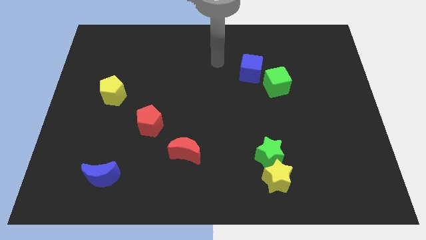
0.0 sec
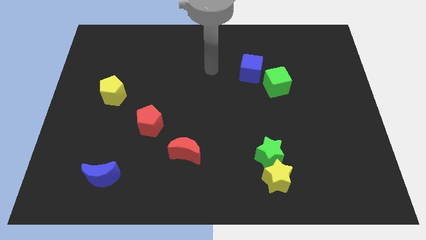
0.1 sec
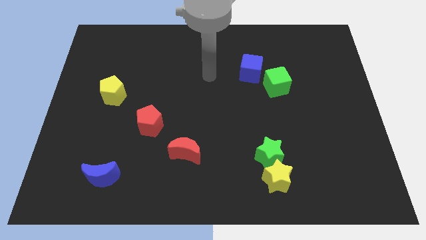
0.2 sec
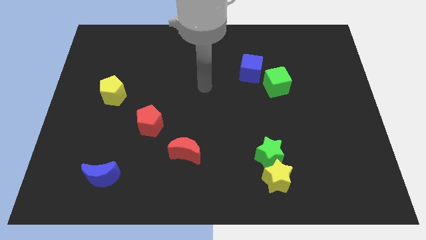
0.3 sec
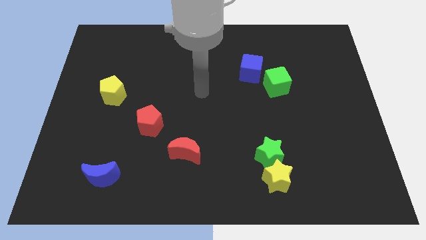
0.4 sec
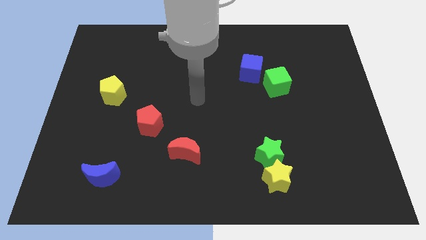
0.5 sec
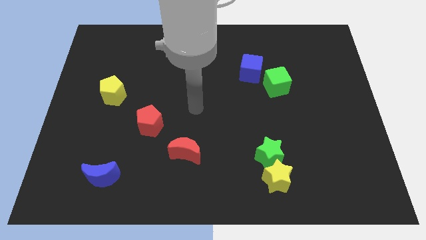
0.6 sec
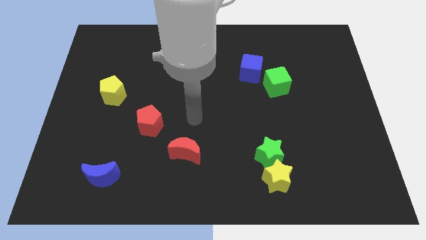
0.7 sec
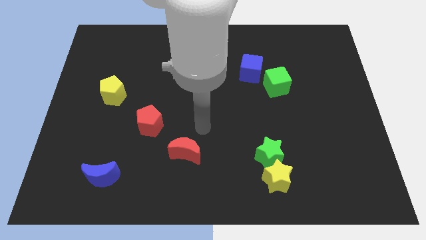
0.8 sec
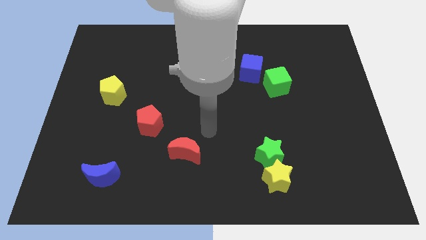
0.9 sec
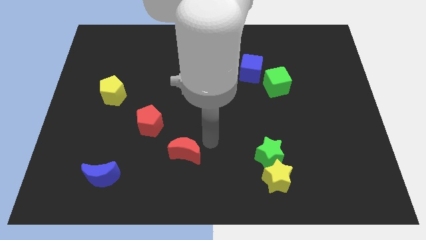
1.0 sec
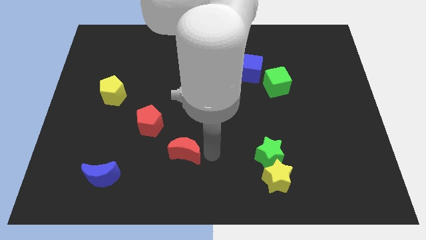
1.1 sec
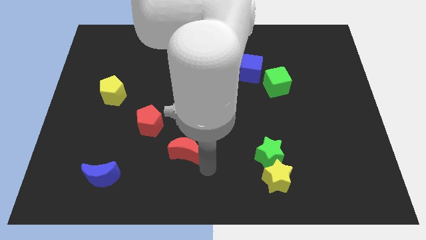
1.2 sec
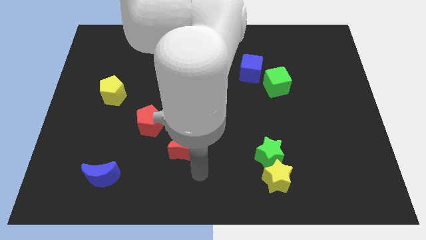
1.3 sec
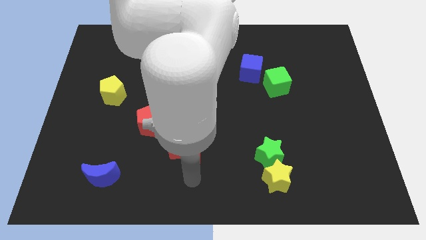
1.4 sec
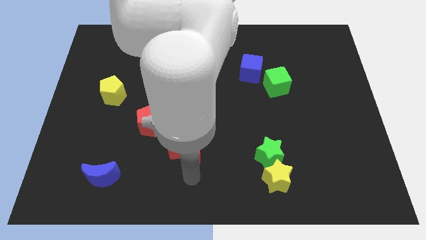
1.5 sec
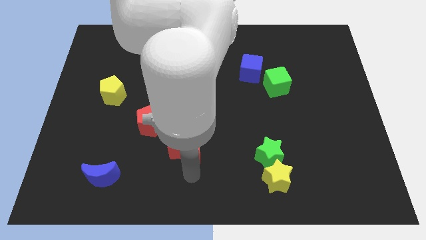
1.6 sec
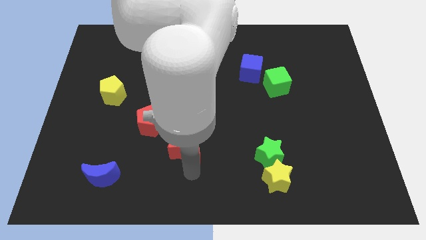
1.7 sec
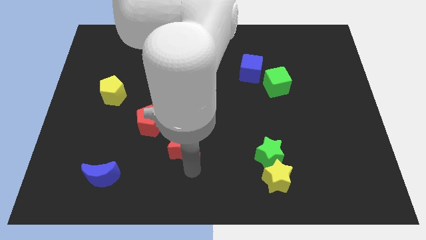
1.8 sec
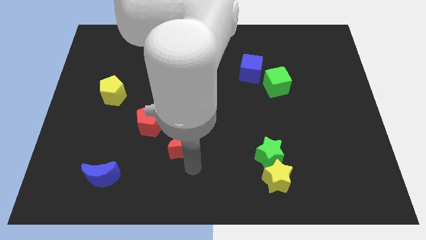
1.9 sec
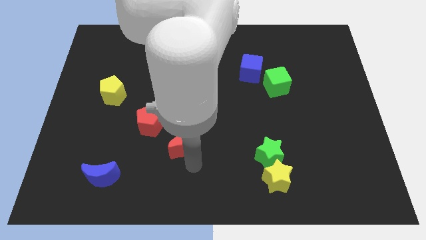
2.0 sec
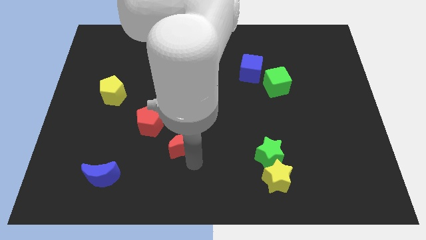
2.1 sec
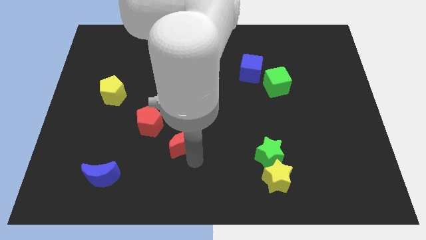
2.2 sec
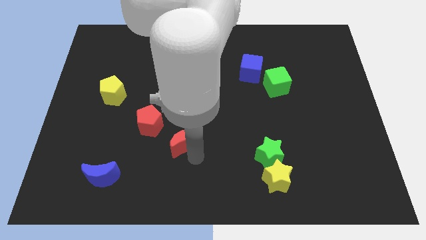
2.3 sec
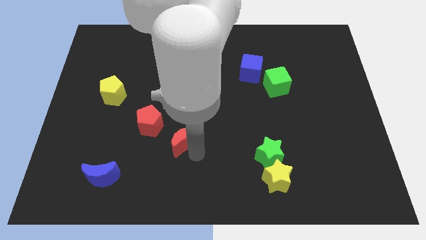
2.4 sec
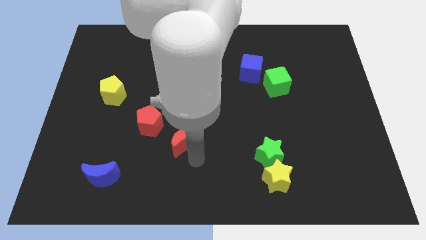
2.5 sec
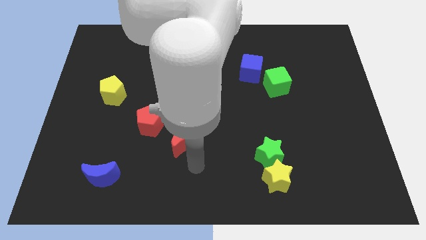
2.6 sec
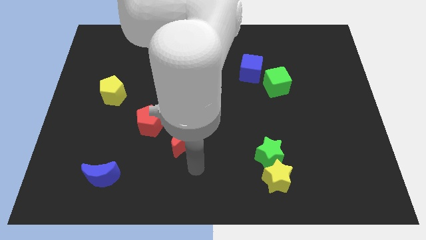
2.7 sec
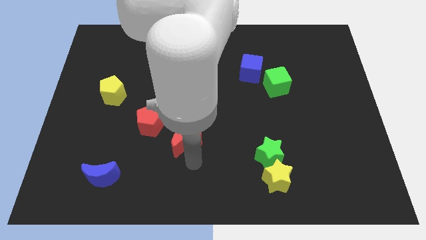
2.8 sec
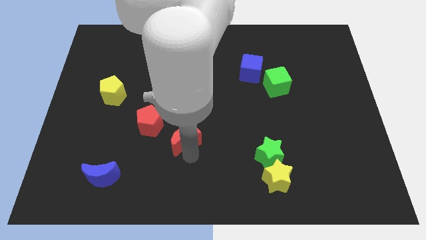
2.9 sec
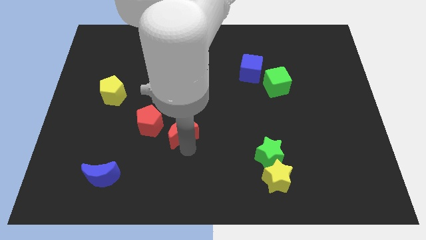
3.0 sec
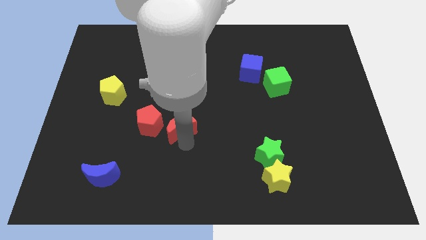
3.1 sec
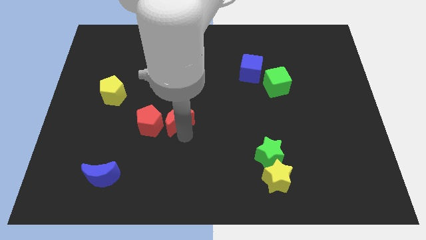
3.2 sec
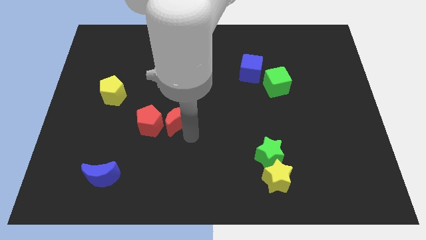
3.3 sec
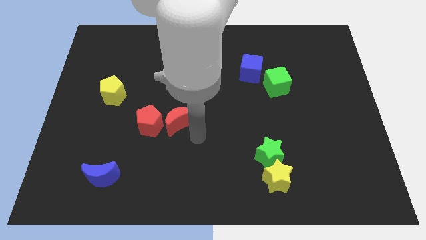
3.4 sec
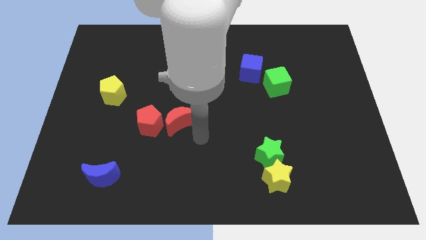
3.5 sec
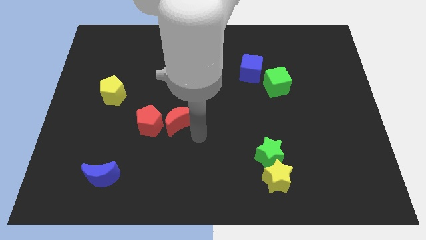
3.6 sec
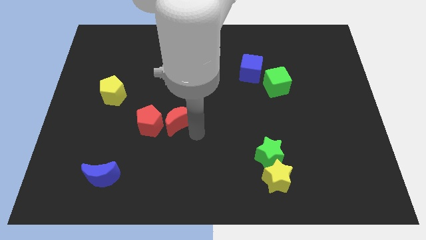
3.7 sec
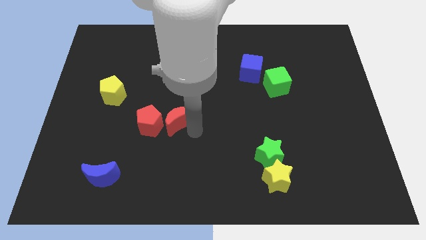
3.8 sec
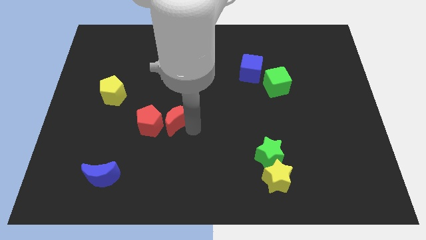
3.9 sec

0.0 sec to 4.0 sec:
slightly move the red moon up and then left

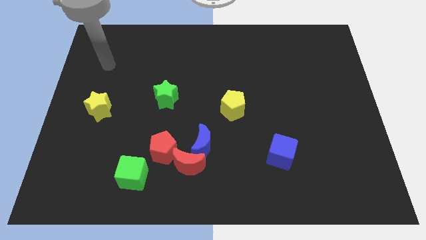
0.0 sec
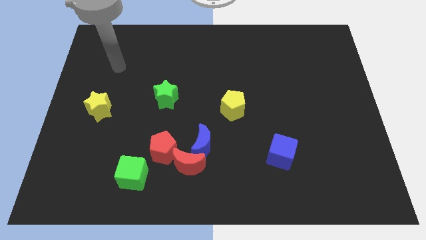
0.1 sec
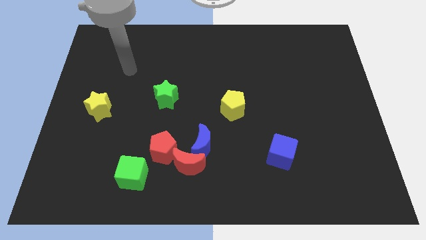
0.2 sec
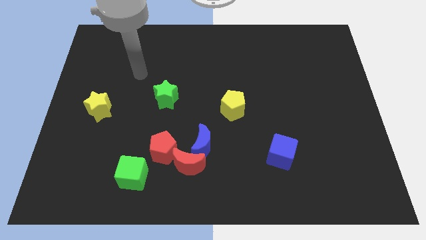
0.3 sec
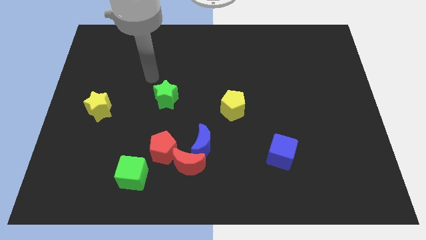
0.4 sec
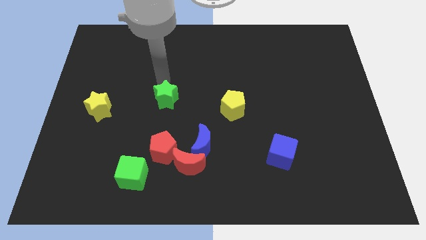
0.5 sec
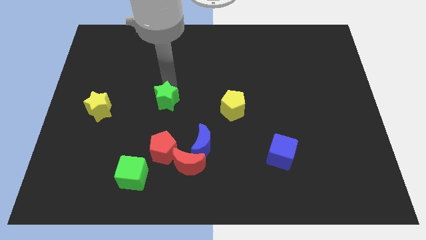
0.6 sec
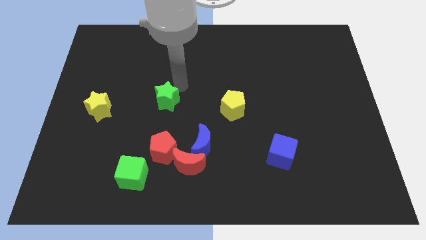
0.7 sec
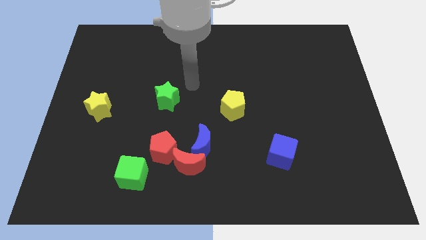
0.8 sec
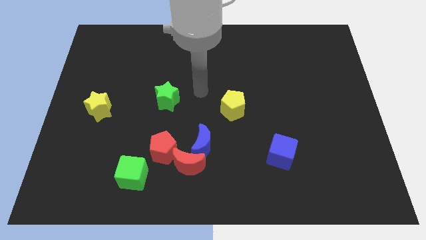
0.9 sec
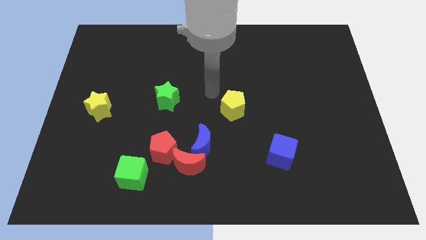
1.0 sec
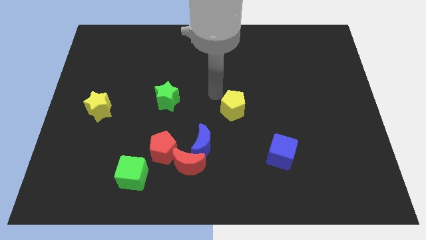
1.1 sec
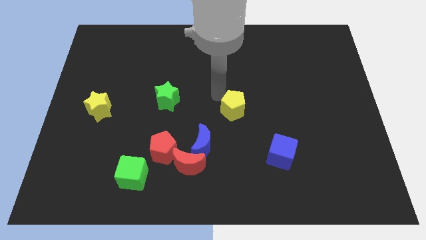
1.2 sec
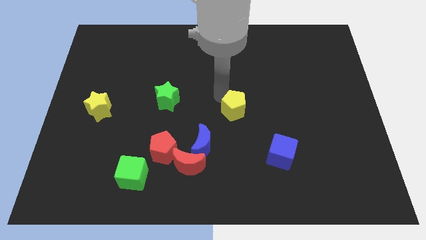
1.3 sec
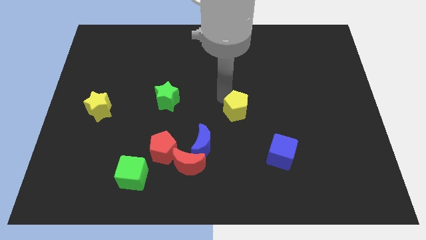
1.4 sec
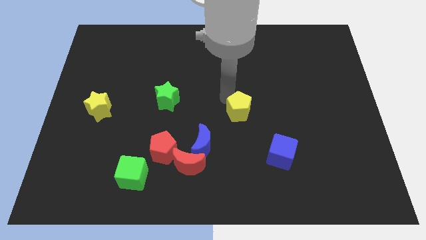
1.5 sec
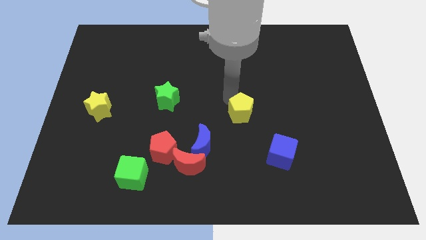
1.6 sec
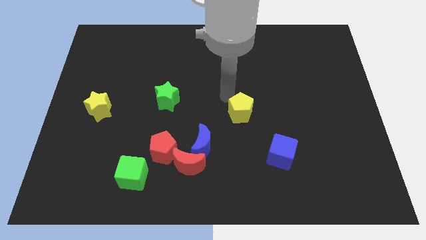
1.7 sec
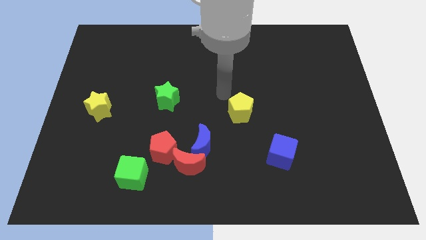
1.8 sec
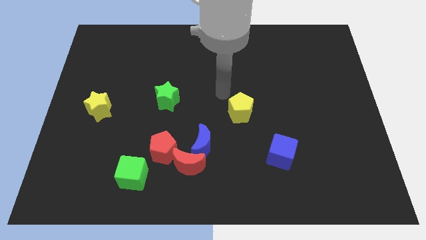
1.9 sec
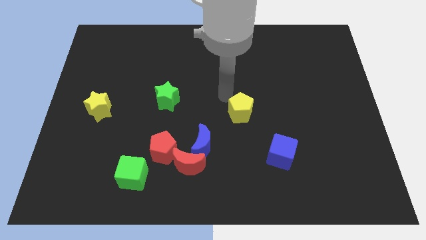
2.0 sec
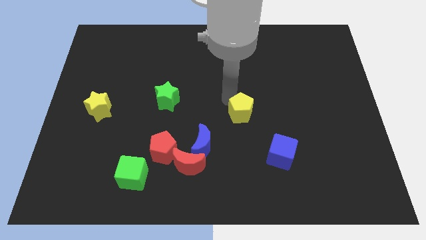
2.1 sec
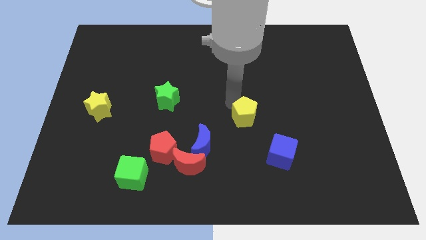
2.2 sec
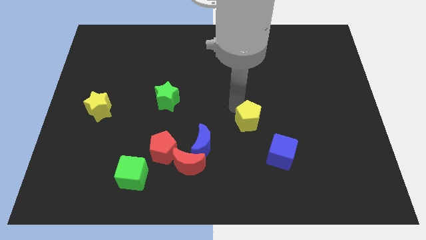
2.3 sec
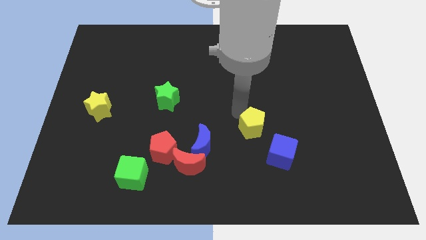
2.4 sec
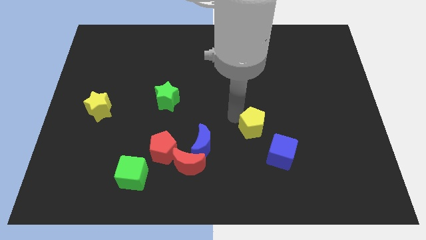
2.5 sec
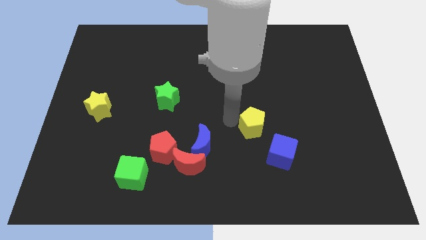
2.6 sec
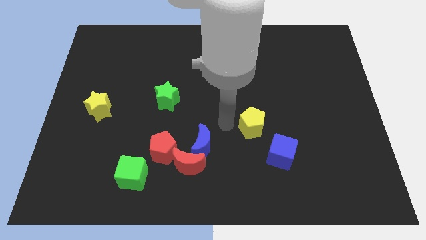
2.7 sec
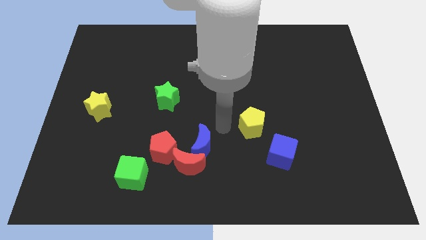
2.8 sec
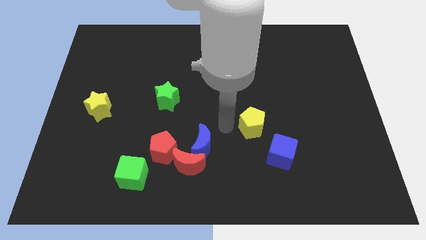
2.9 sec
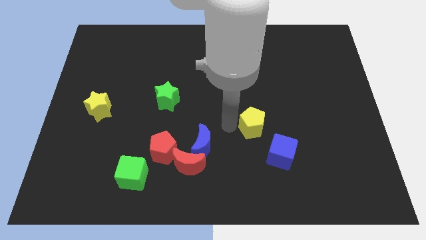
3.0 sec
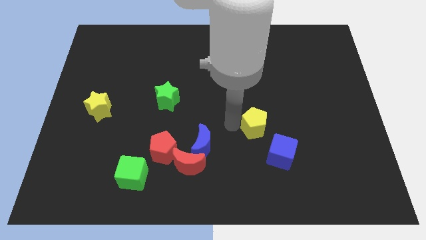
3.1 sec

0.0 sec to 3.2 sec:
slightly move the yellow pentagon down and then right

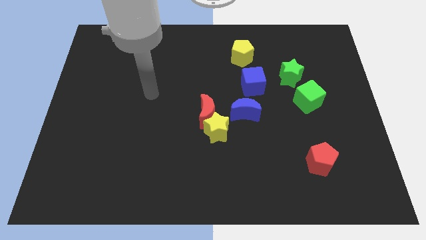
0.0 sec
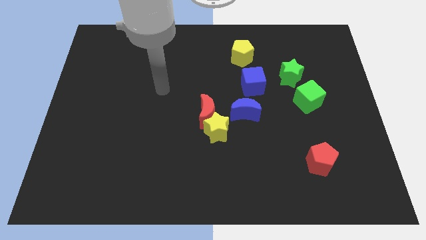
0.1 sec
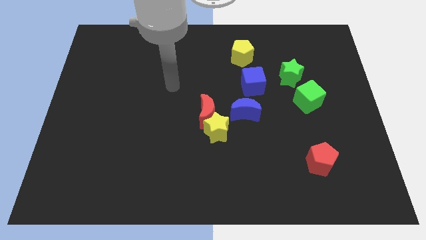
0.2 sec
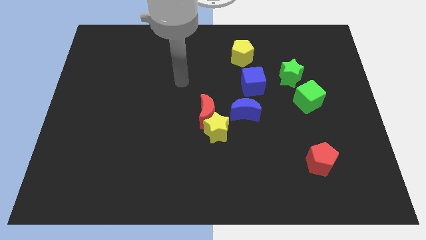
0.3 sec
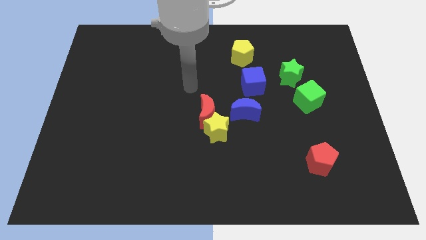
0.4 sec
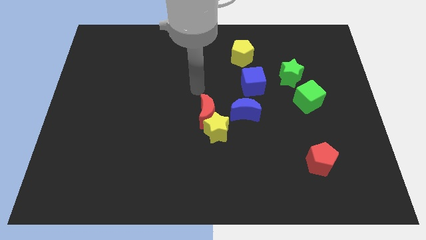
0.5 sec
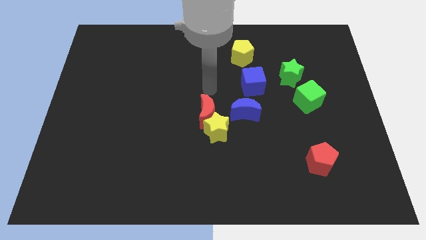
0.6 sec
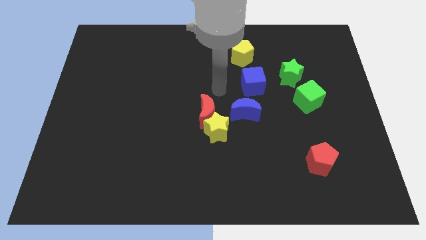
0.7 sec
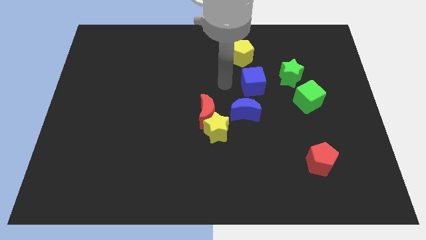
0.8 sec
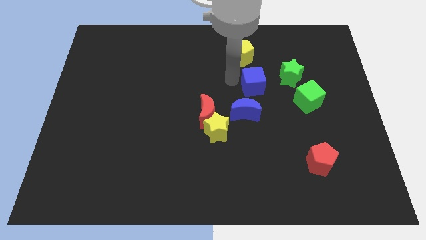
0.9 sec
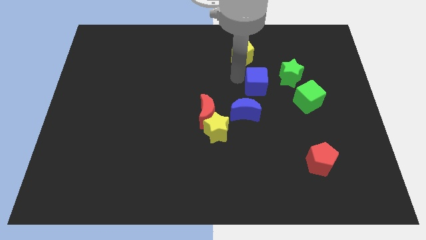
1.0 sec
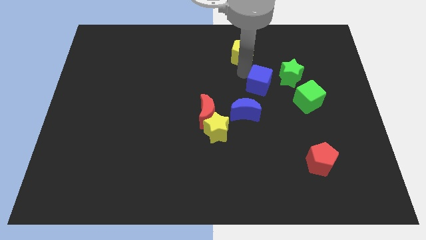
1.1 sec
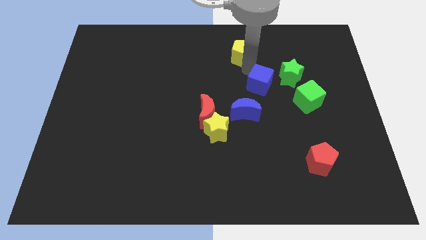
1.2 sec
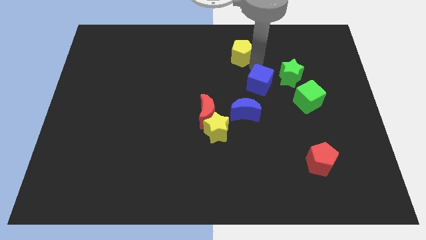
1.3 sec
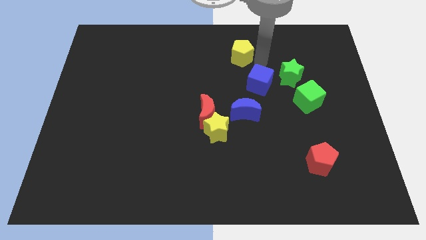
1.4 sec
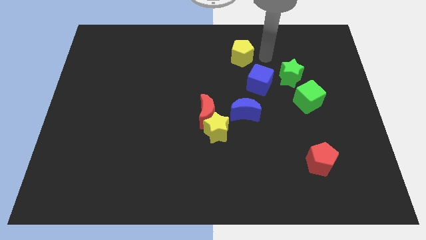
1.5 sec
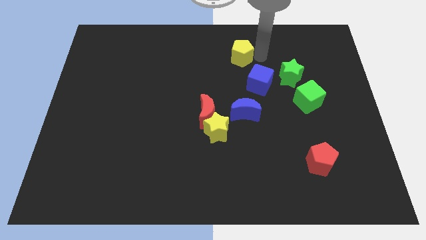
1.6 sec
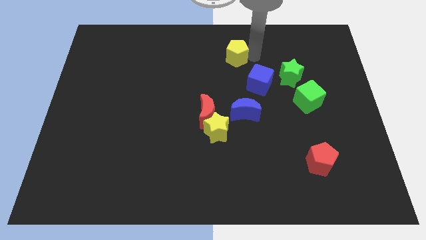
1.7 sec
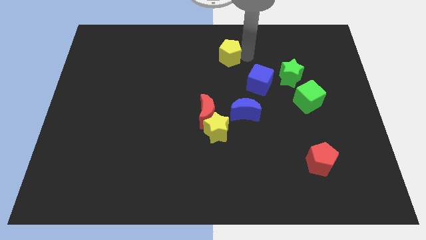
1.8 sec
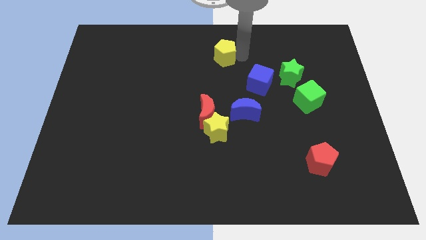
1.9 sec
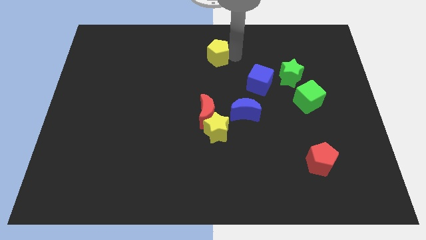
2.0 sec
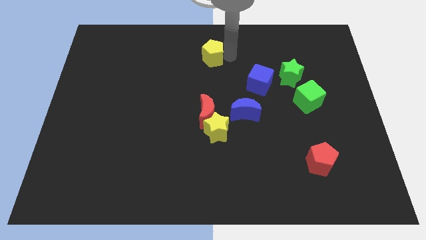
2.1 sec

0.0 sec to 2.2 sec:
slide the yellow pentagon to the left a bit
